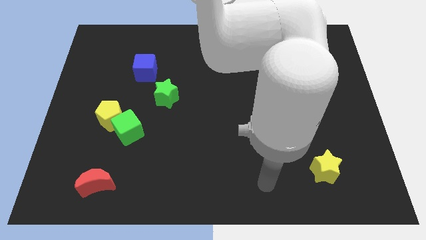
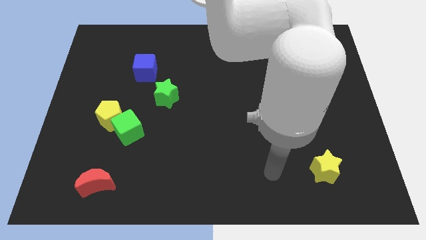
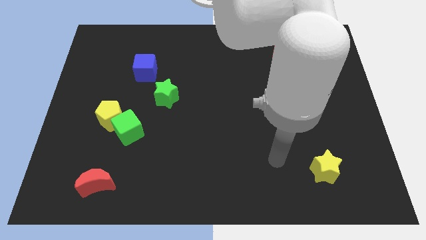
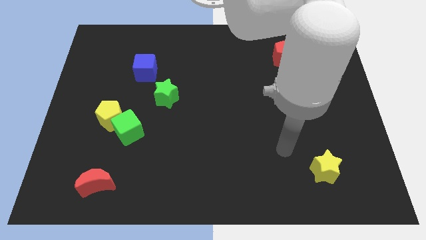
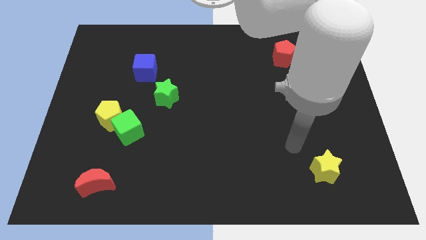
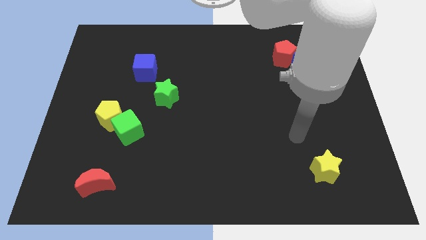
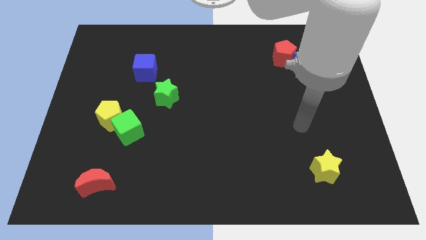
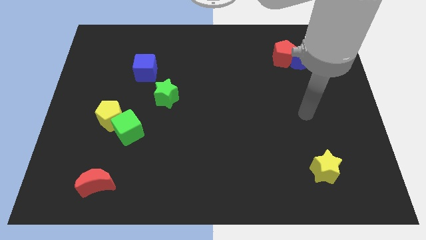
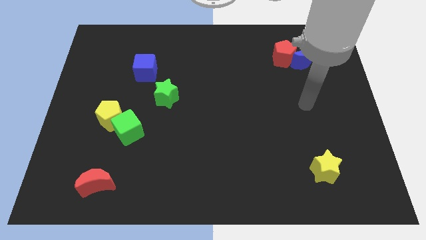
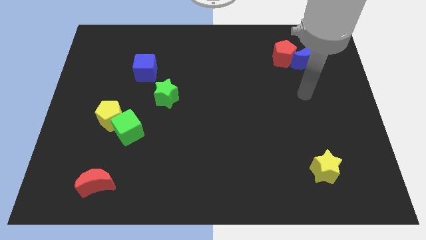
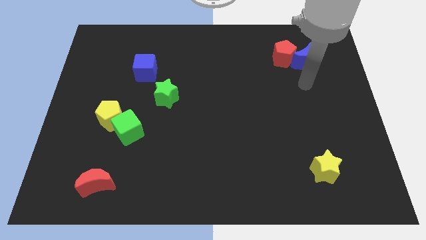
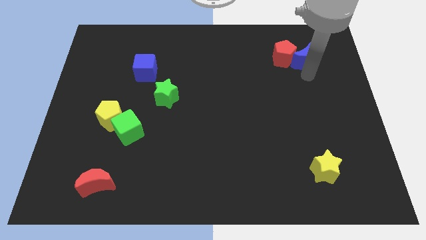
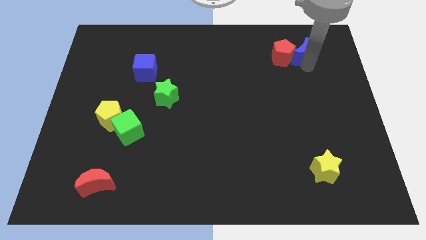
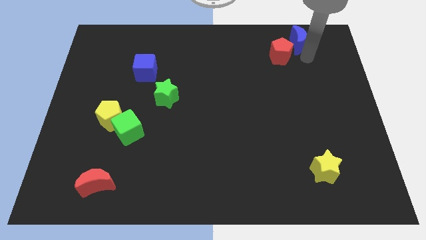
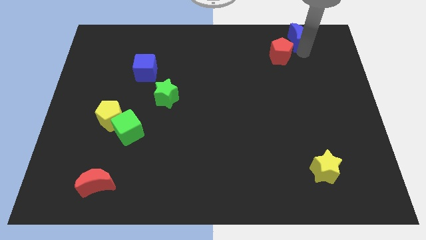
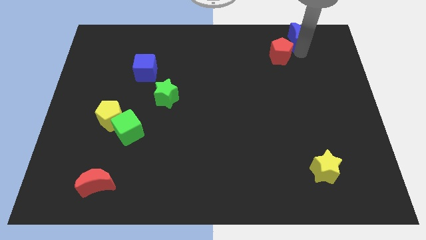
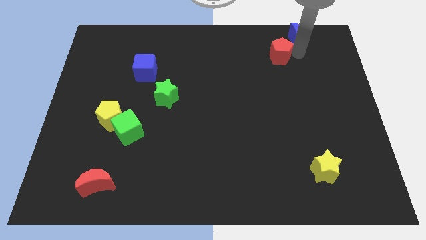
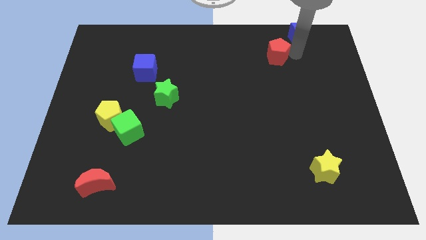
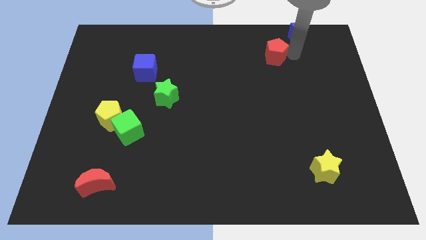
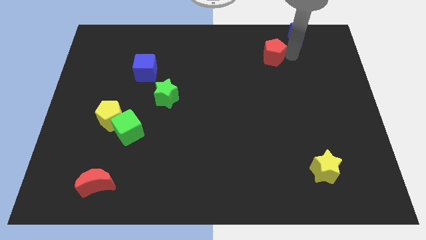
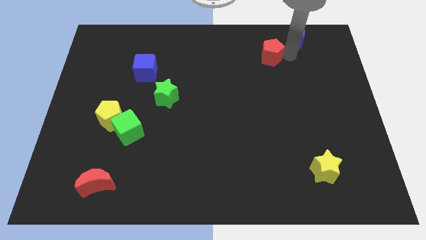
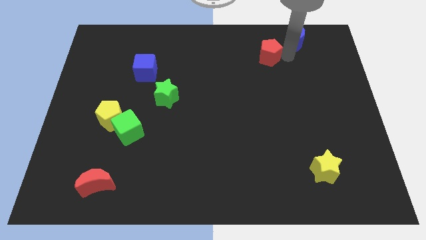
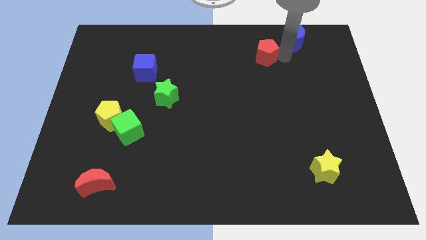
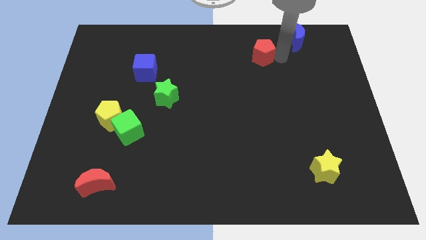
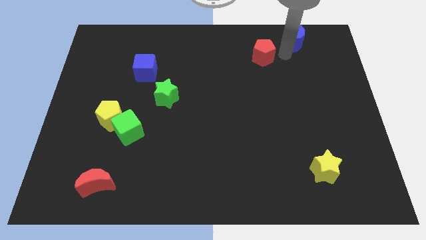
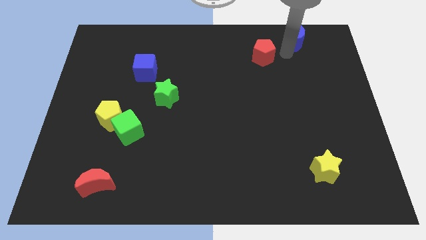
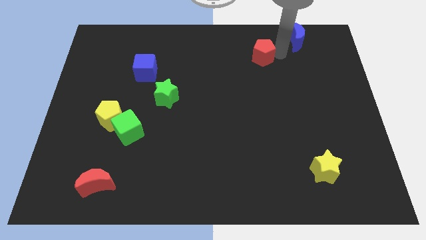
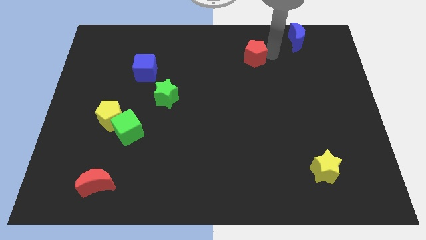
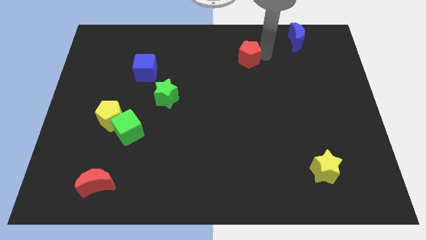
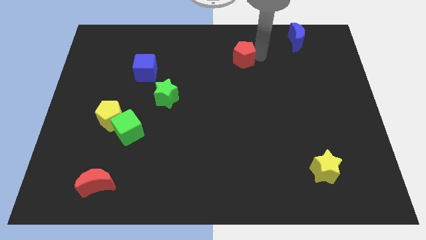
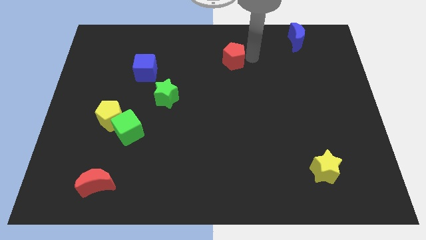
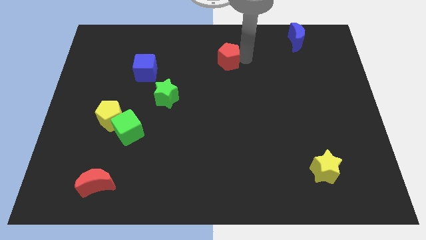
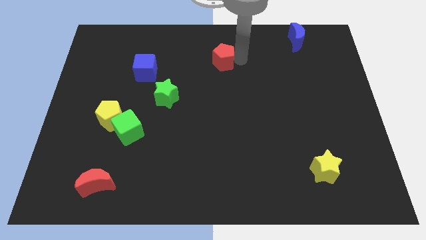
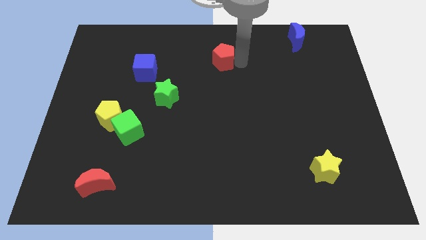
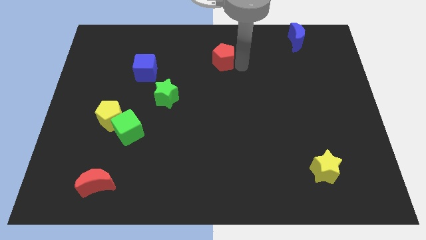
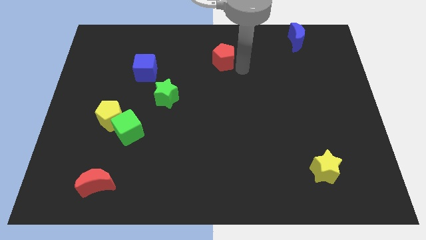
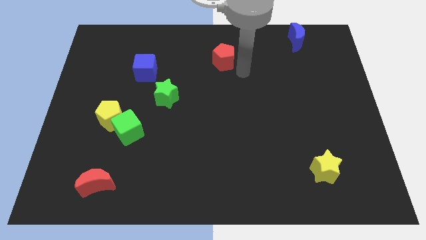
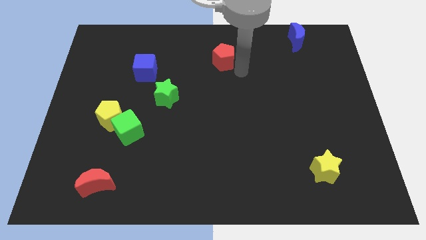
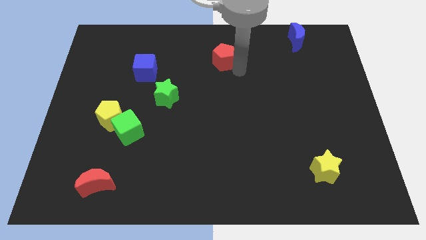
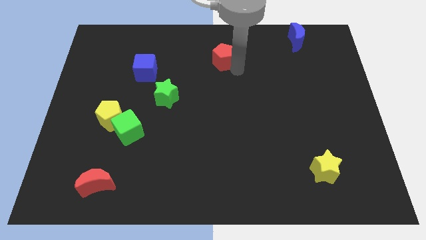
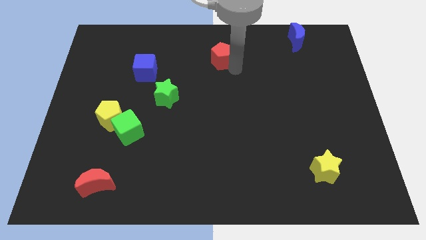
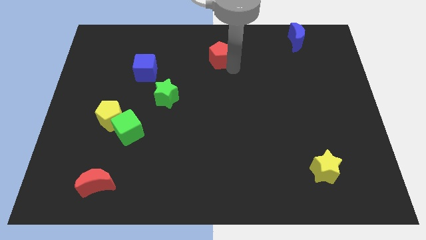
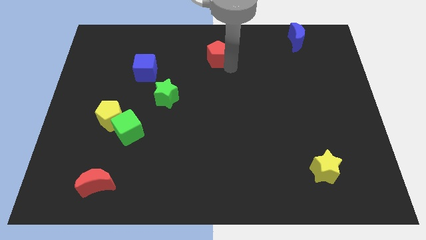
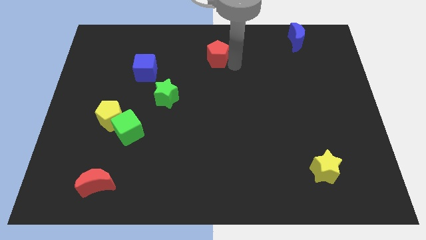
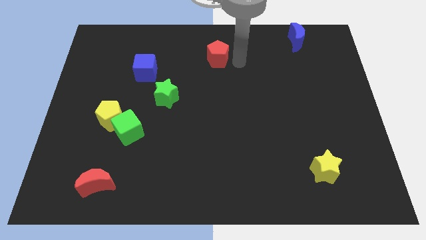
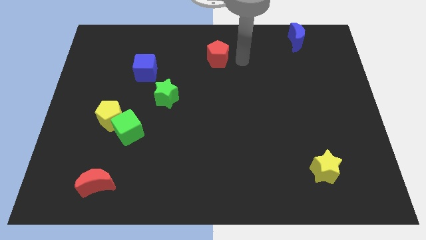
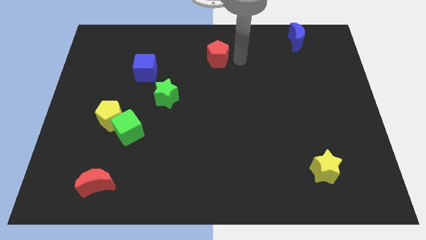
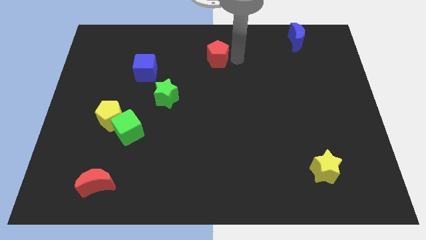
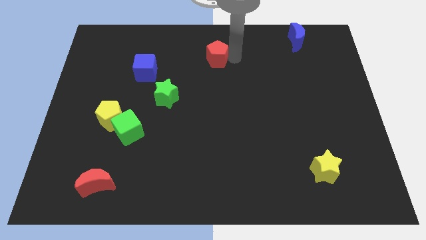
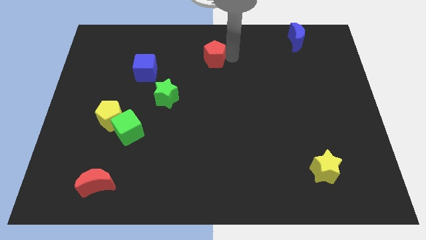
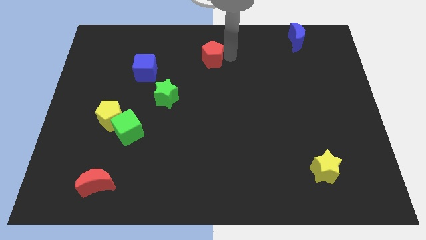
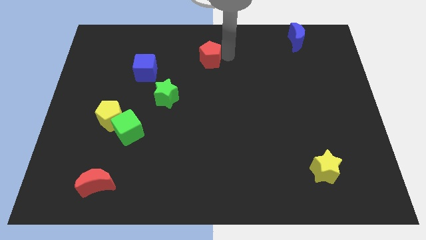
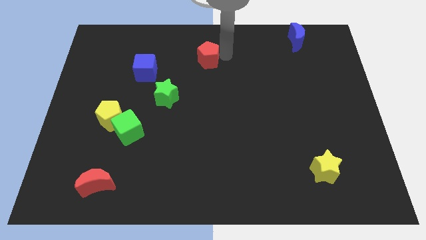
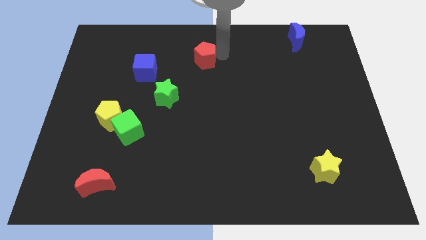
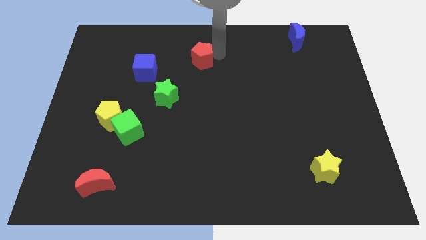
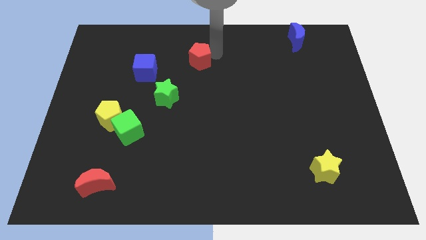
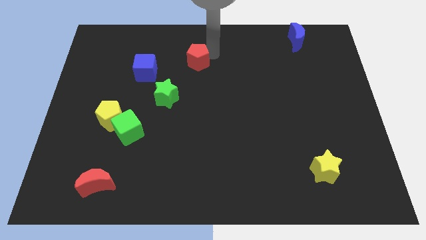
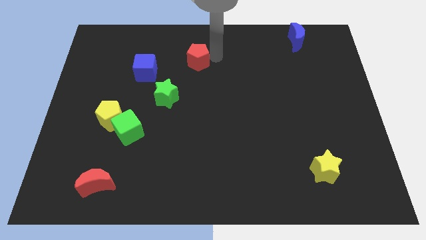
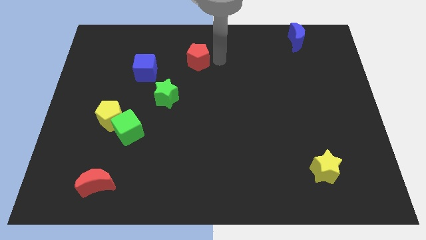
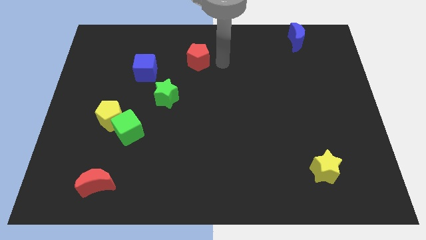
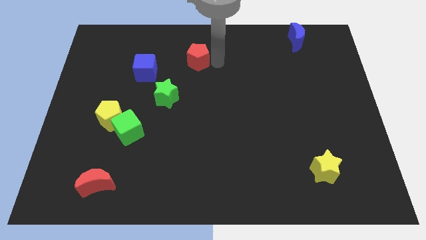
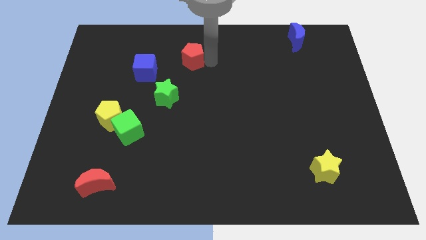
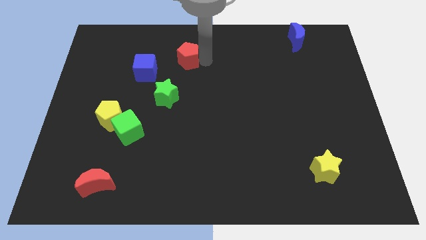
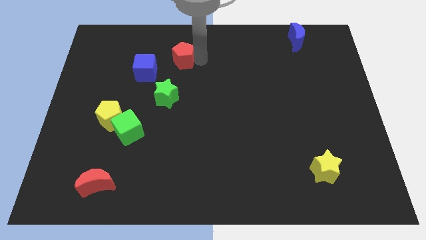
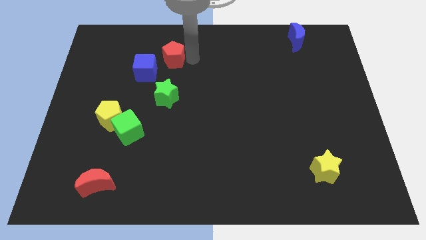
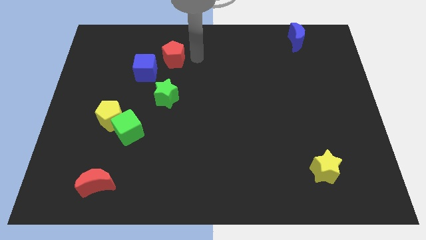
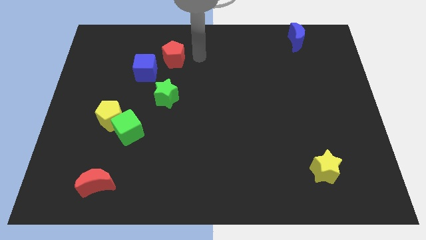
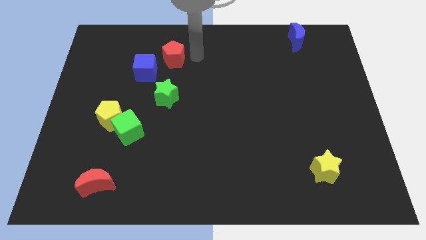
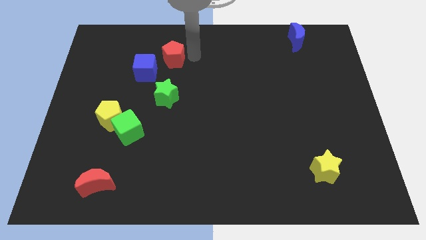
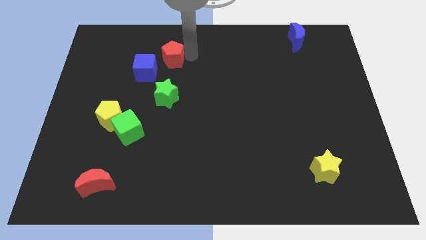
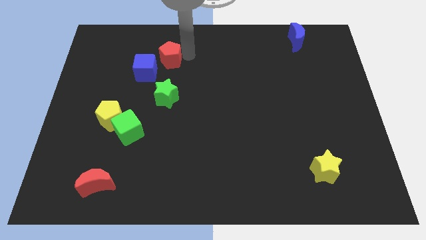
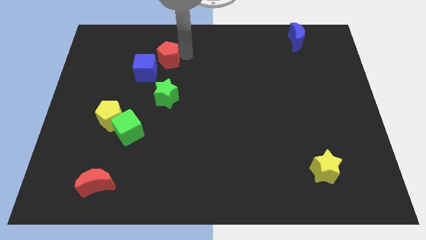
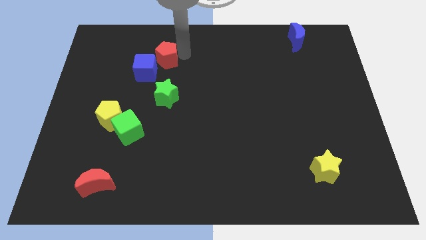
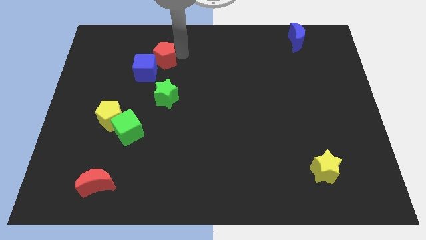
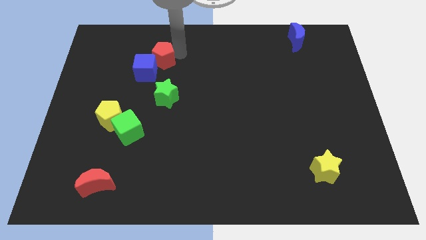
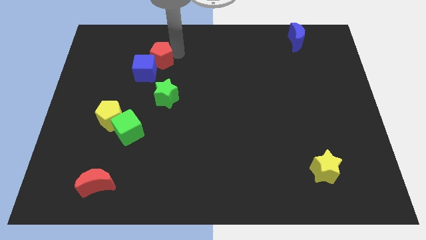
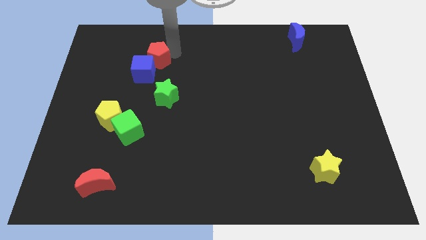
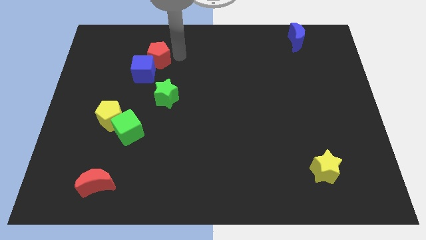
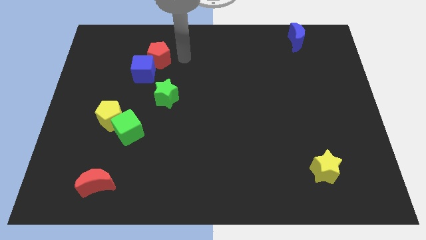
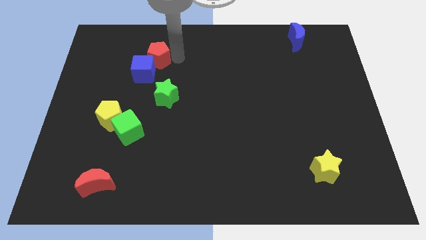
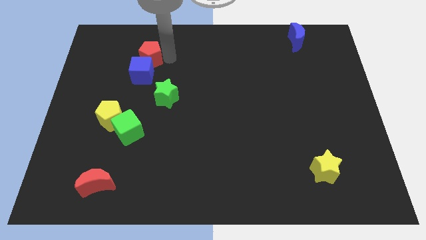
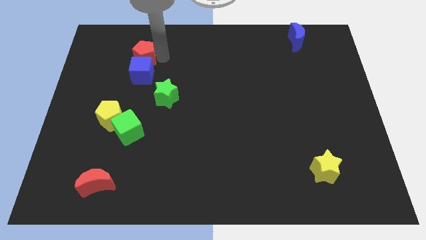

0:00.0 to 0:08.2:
put the red pentagon to the top left side of the blue cube
